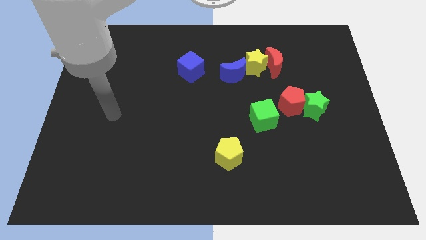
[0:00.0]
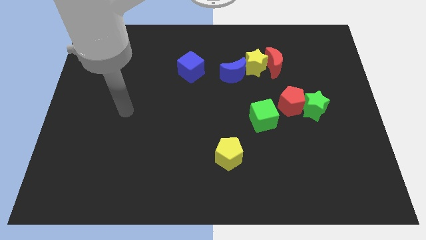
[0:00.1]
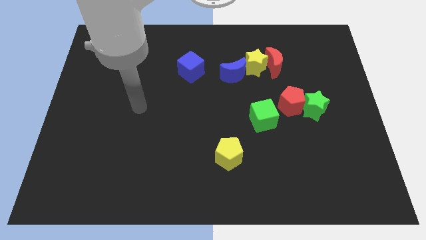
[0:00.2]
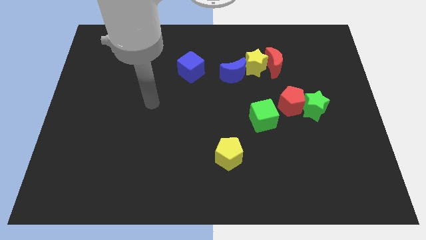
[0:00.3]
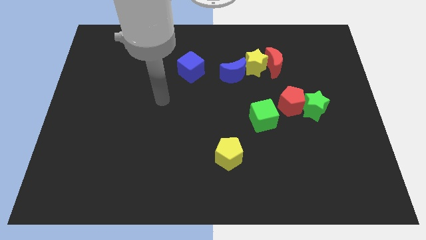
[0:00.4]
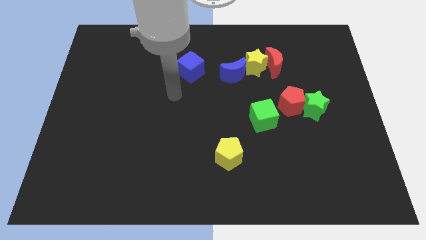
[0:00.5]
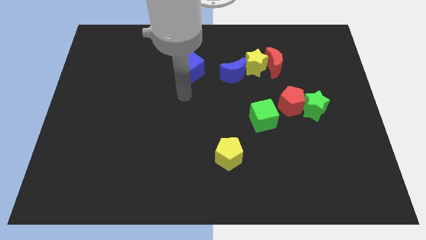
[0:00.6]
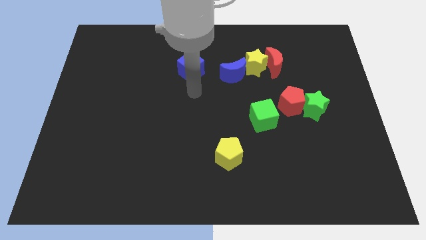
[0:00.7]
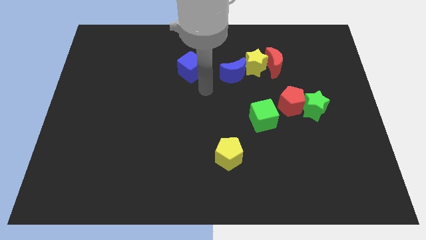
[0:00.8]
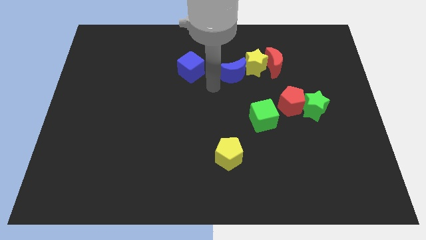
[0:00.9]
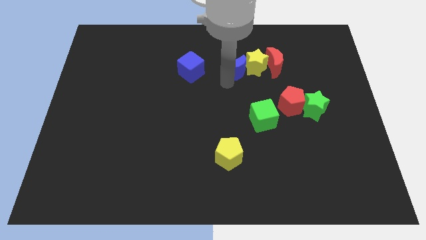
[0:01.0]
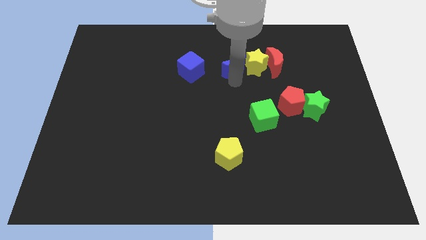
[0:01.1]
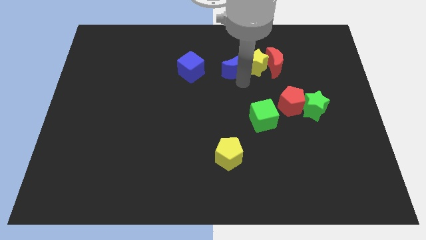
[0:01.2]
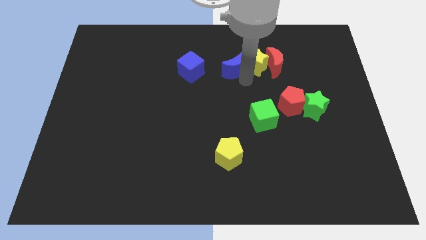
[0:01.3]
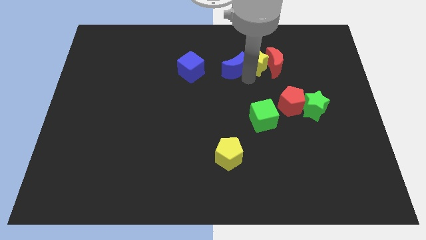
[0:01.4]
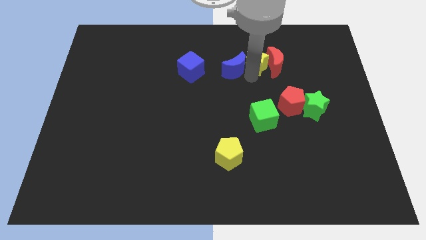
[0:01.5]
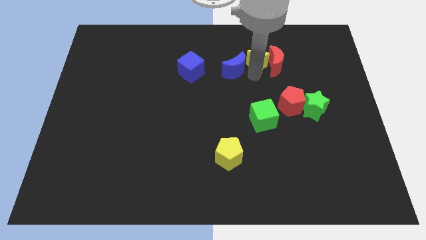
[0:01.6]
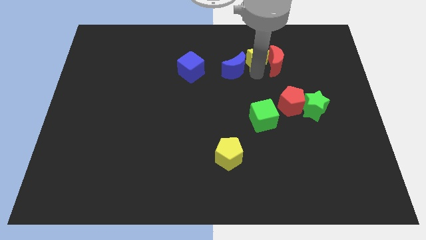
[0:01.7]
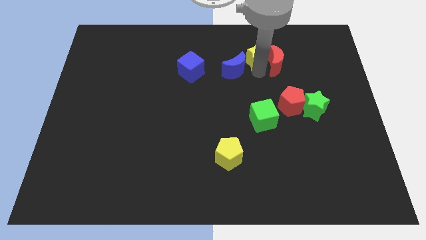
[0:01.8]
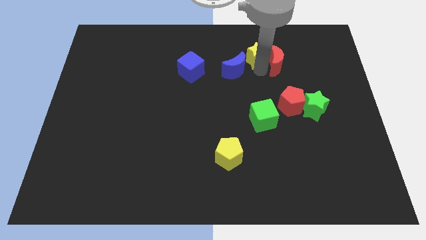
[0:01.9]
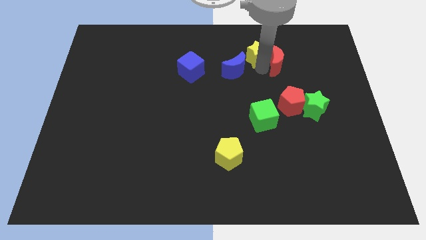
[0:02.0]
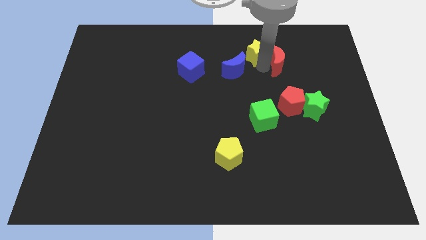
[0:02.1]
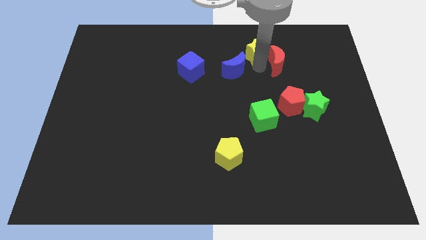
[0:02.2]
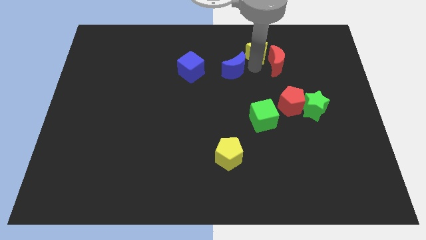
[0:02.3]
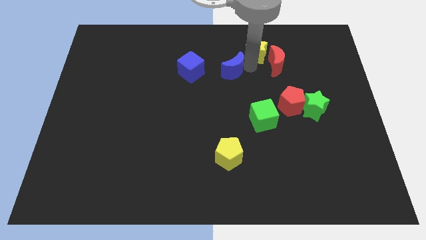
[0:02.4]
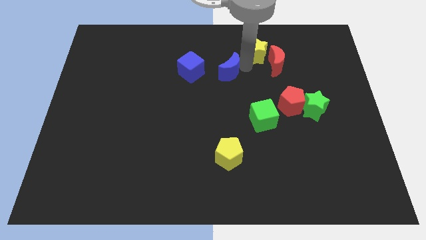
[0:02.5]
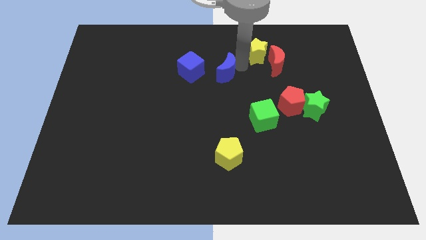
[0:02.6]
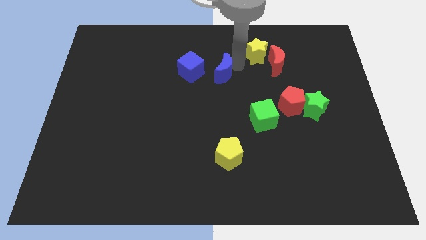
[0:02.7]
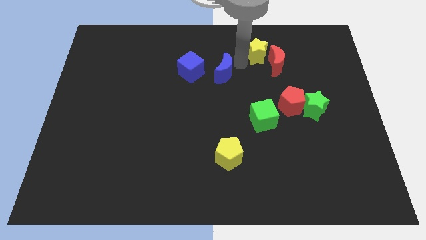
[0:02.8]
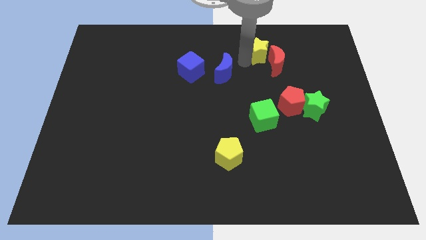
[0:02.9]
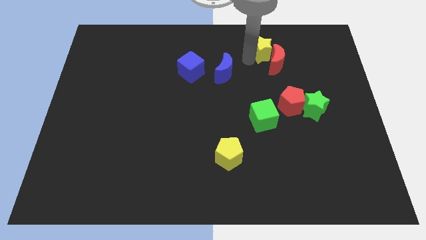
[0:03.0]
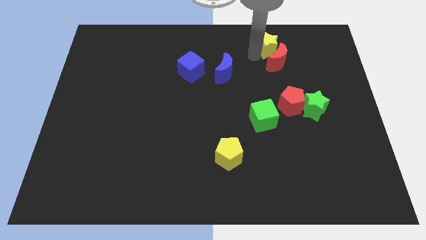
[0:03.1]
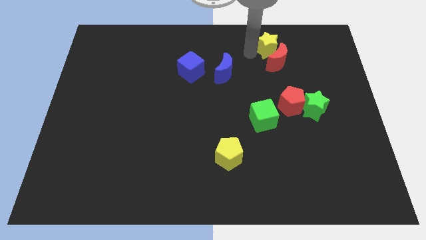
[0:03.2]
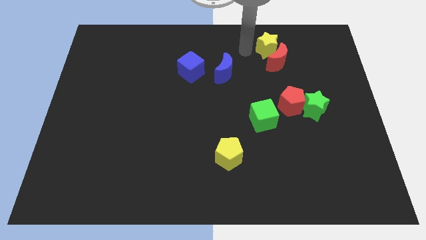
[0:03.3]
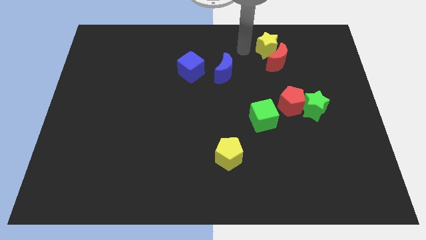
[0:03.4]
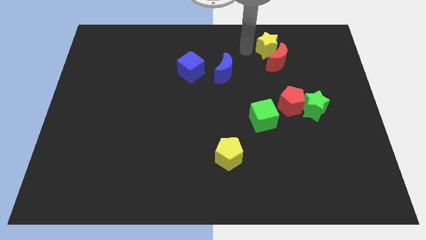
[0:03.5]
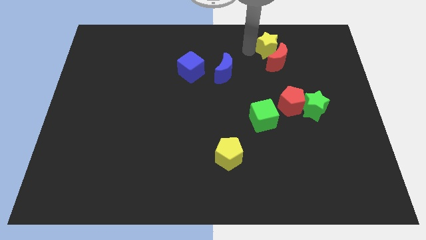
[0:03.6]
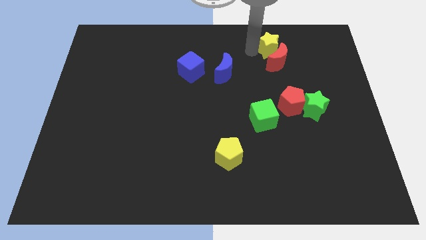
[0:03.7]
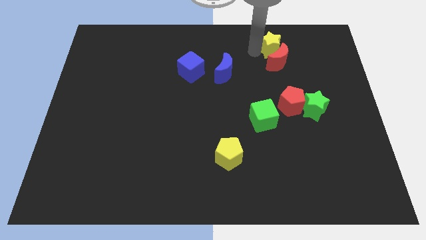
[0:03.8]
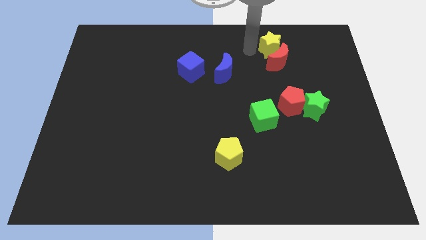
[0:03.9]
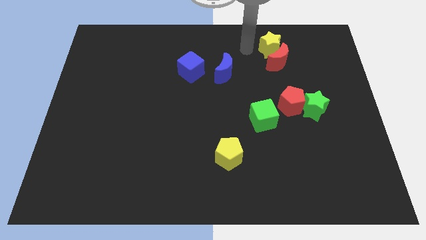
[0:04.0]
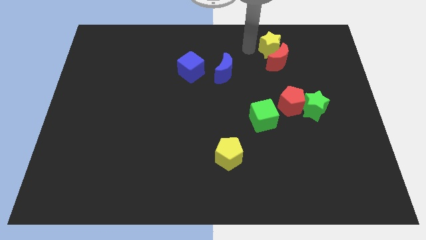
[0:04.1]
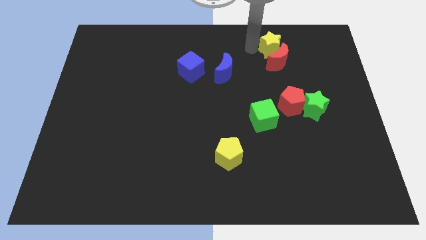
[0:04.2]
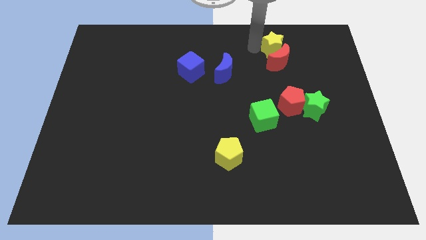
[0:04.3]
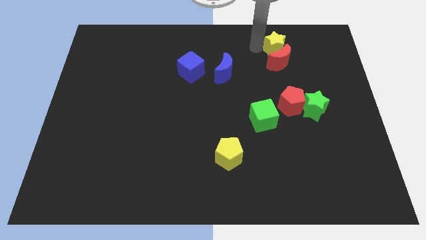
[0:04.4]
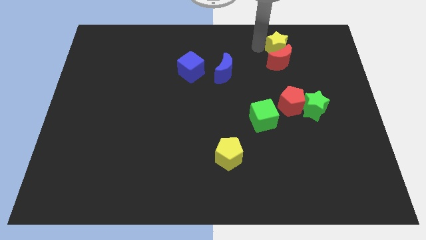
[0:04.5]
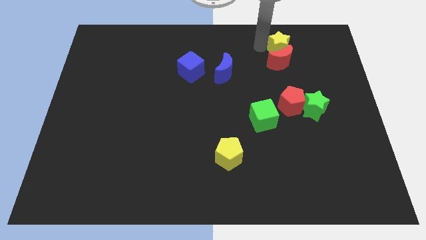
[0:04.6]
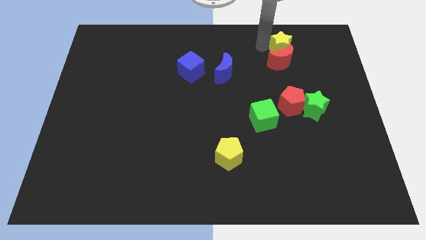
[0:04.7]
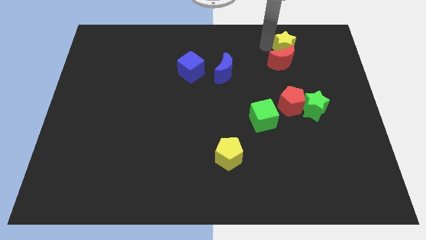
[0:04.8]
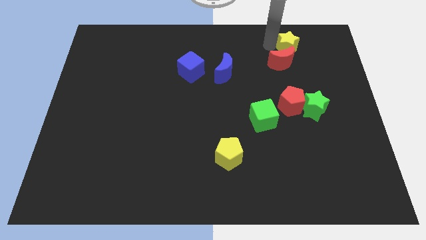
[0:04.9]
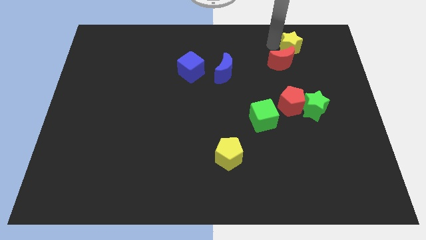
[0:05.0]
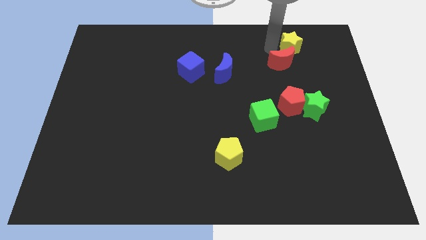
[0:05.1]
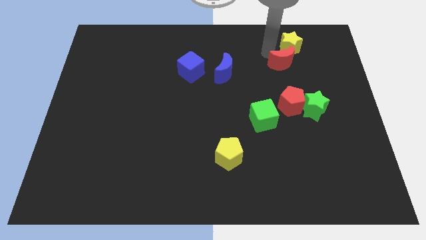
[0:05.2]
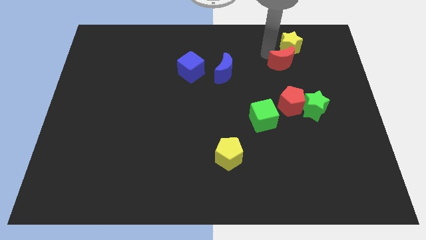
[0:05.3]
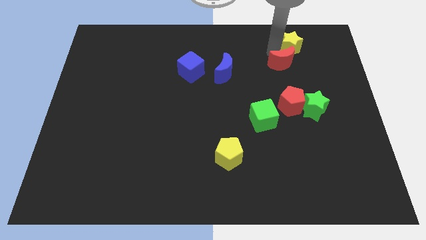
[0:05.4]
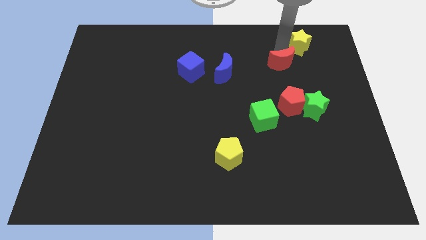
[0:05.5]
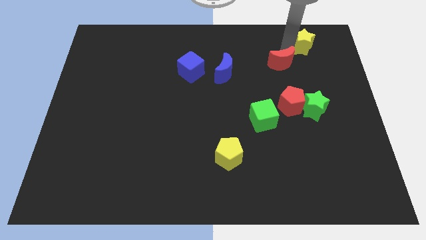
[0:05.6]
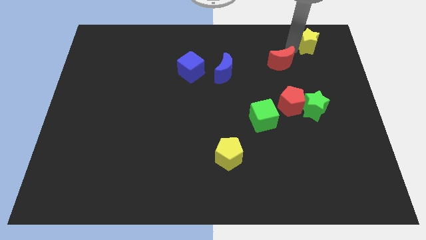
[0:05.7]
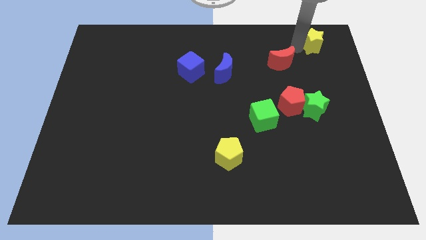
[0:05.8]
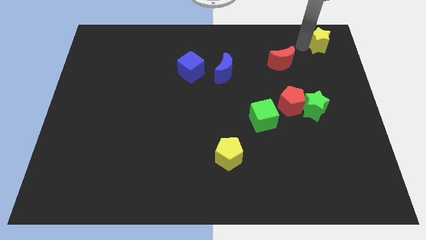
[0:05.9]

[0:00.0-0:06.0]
push the yellow star to the top right corner

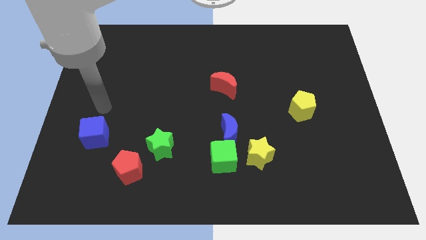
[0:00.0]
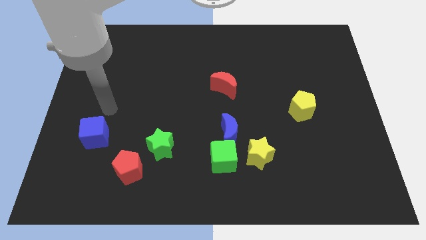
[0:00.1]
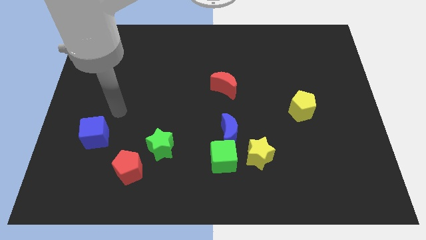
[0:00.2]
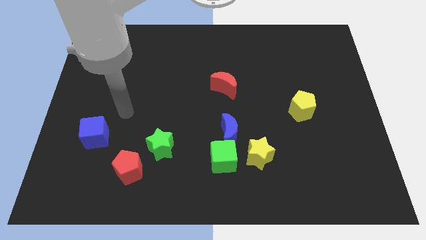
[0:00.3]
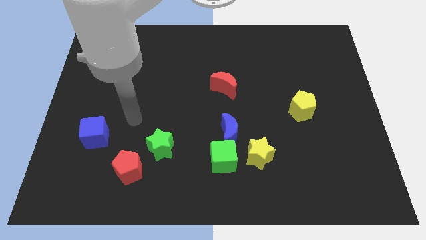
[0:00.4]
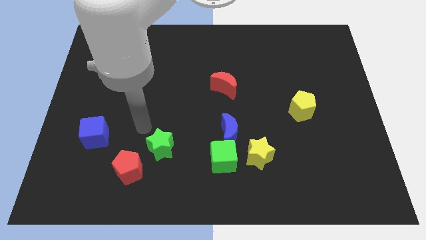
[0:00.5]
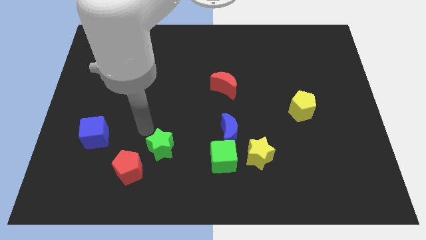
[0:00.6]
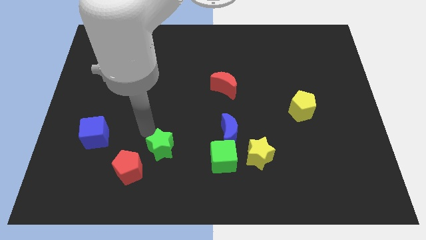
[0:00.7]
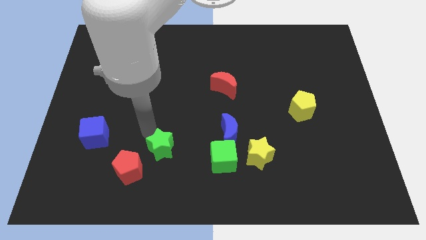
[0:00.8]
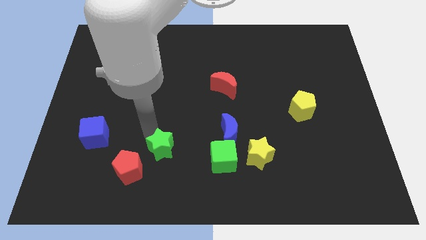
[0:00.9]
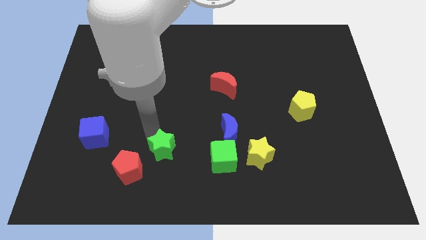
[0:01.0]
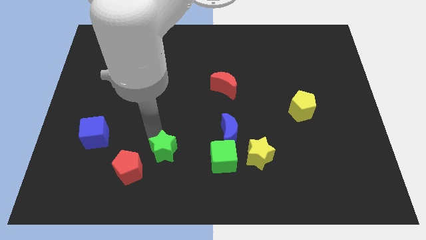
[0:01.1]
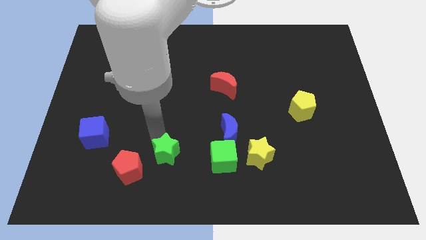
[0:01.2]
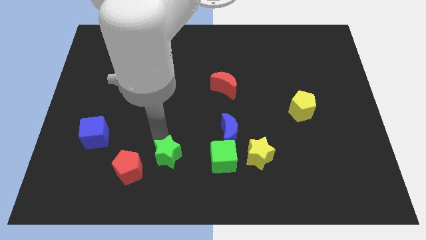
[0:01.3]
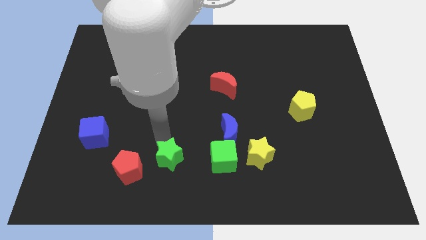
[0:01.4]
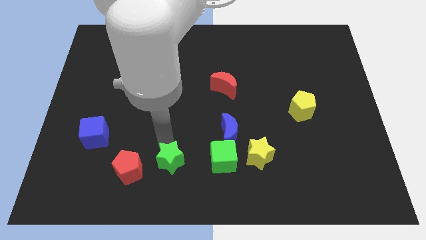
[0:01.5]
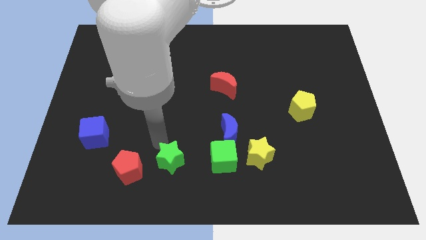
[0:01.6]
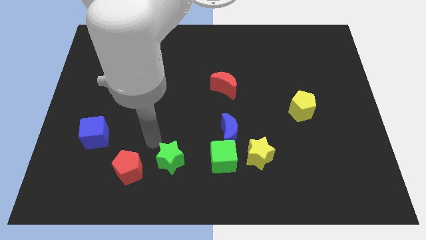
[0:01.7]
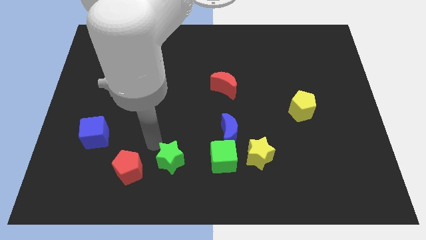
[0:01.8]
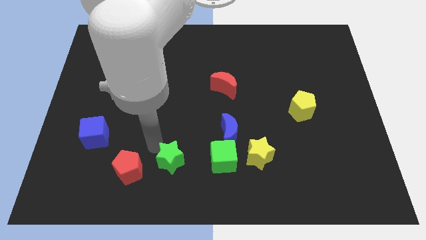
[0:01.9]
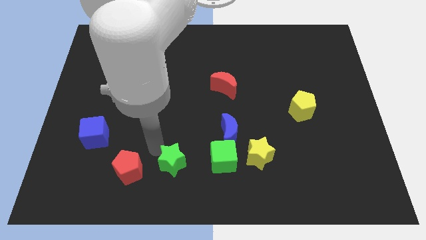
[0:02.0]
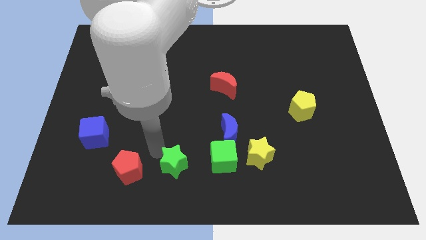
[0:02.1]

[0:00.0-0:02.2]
put the green star to the bottom
